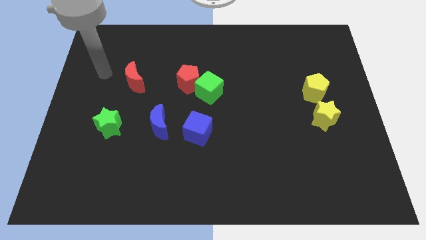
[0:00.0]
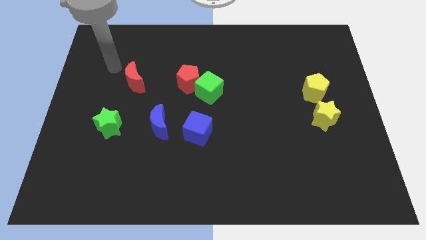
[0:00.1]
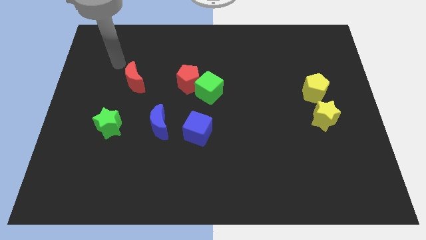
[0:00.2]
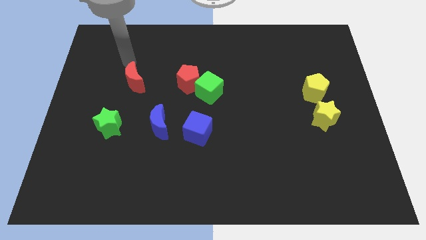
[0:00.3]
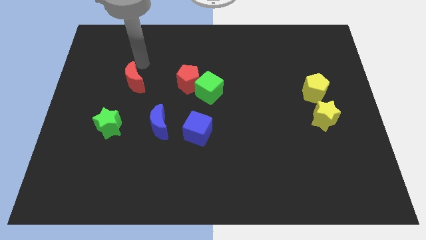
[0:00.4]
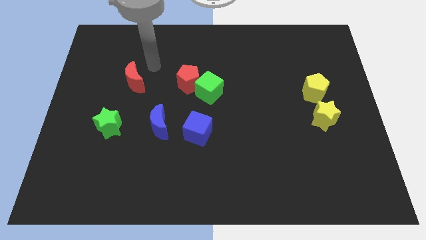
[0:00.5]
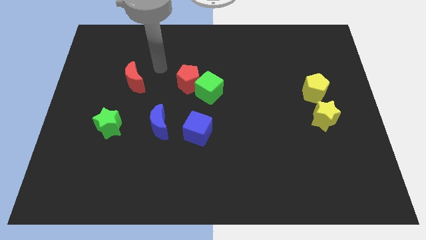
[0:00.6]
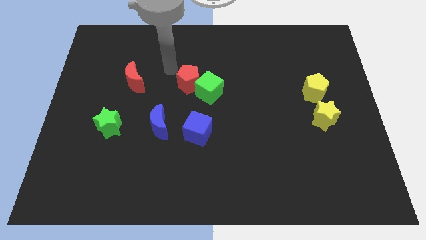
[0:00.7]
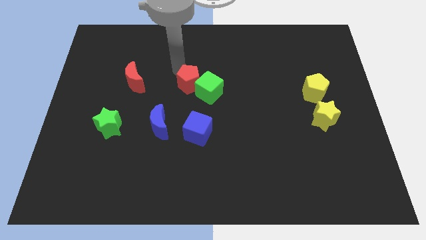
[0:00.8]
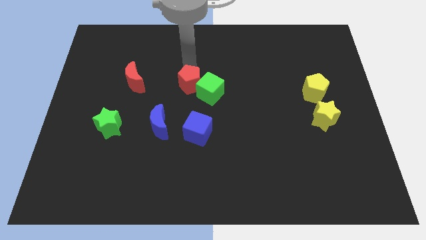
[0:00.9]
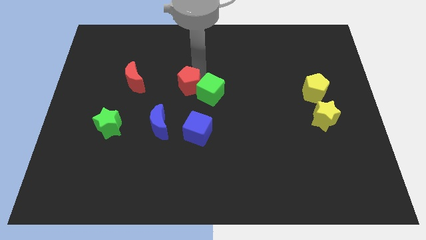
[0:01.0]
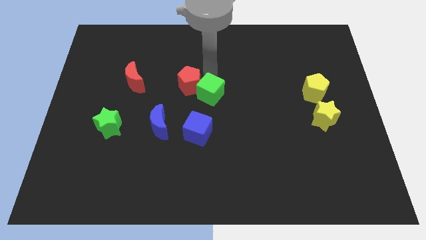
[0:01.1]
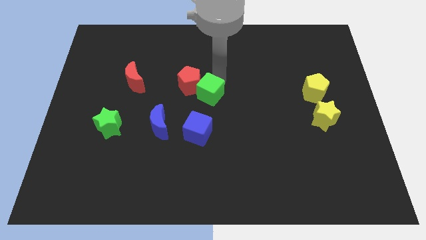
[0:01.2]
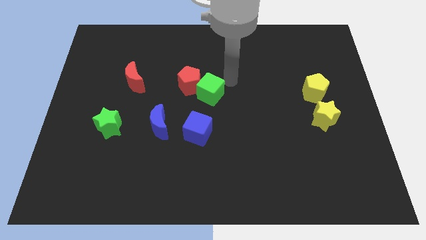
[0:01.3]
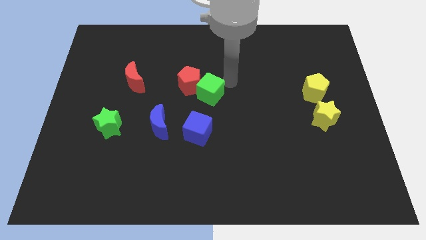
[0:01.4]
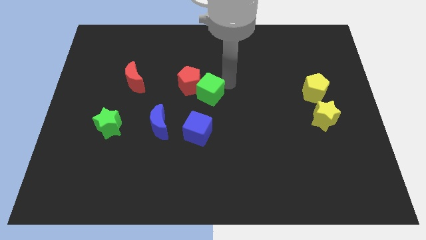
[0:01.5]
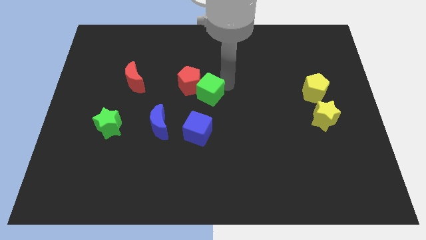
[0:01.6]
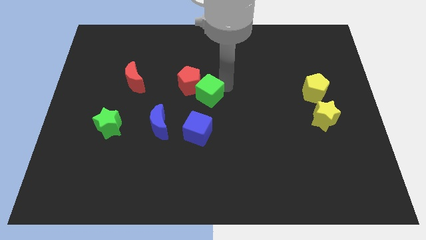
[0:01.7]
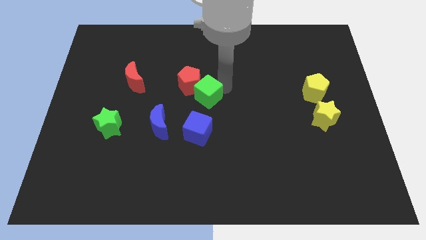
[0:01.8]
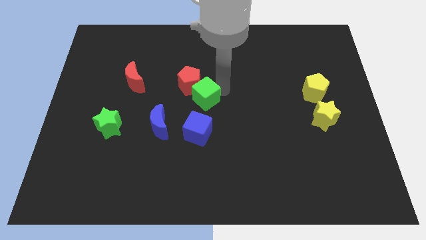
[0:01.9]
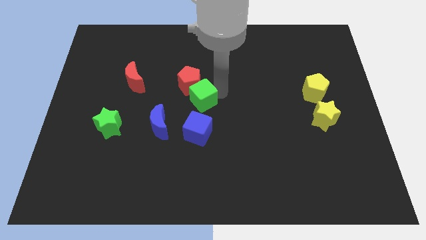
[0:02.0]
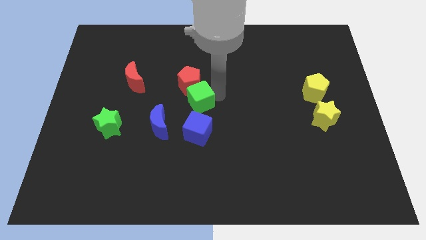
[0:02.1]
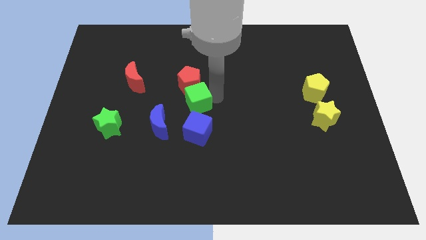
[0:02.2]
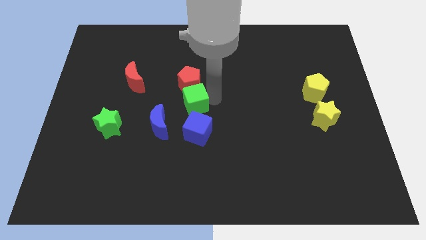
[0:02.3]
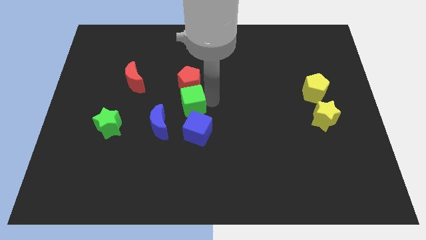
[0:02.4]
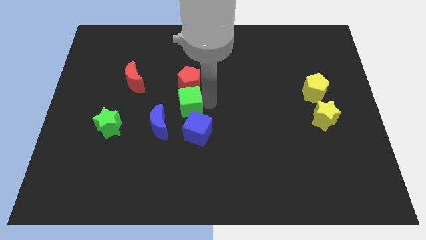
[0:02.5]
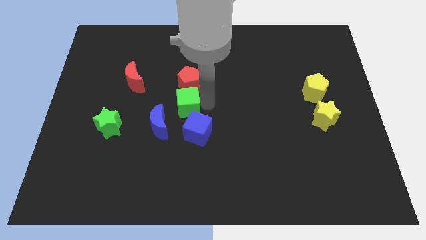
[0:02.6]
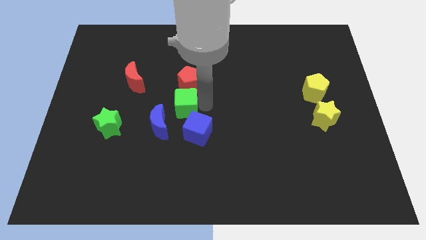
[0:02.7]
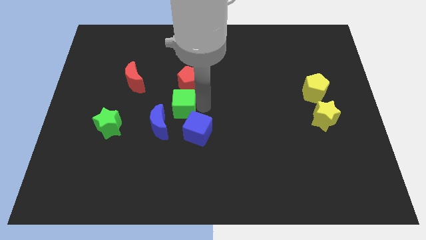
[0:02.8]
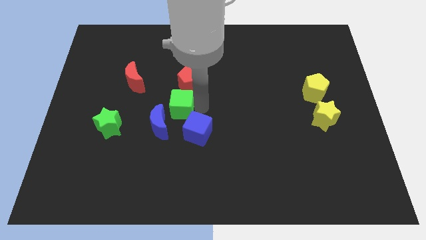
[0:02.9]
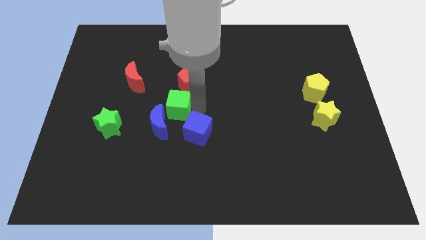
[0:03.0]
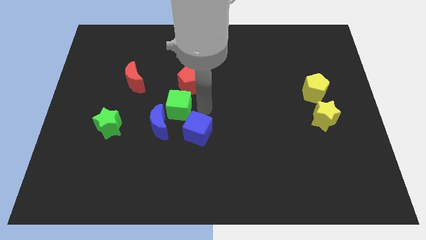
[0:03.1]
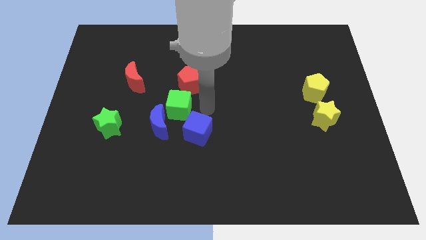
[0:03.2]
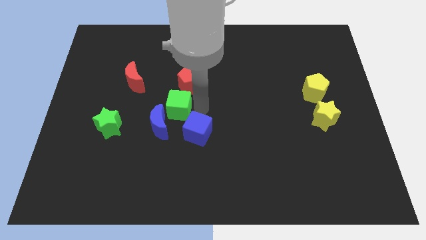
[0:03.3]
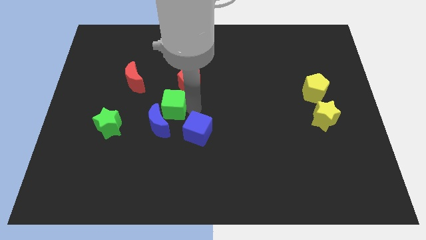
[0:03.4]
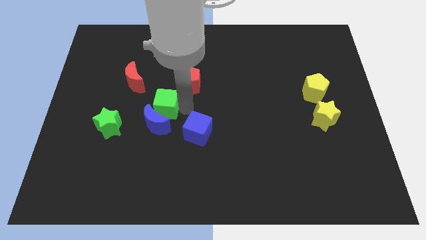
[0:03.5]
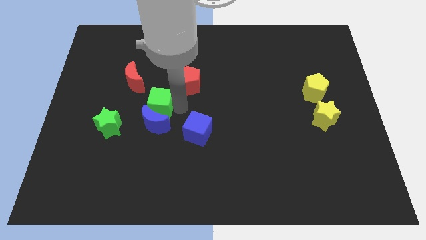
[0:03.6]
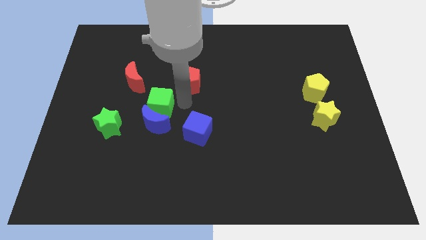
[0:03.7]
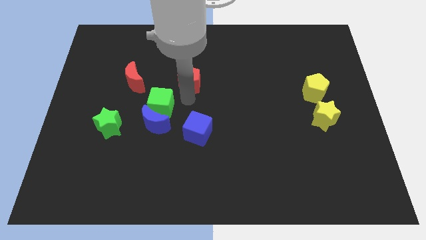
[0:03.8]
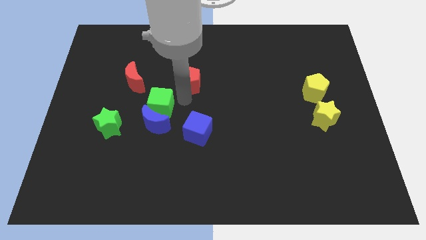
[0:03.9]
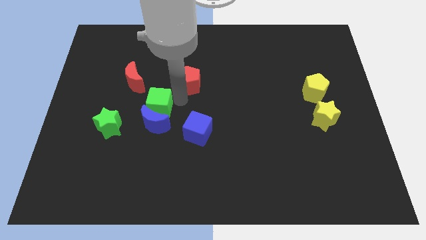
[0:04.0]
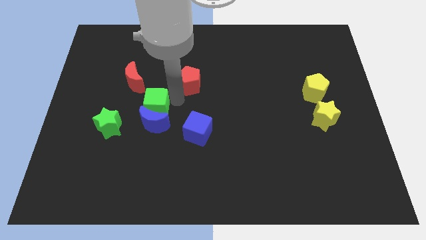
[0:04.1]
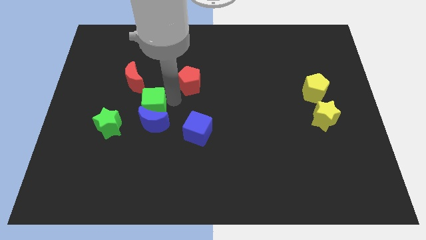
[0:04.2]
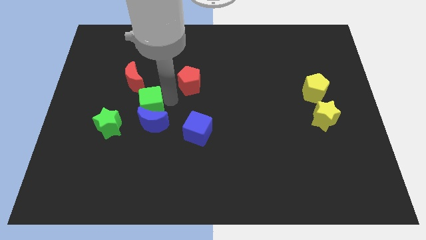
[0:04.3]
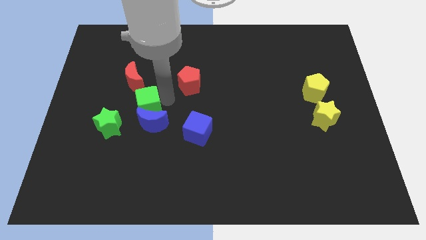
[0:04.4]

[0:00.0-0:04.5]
put the green cube below the red moon

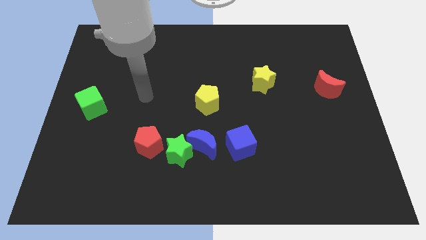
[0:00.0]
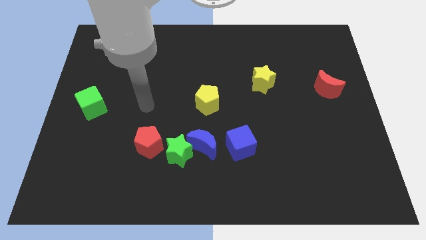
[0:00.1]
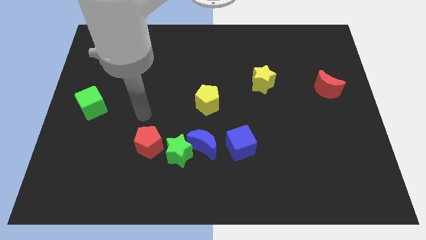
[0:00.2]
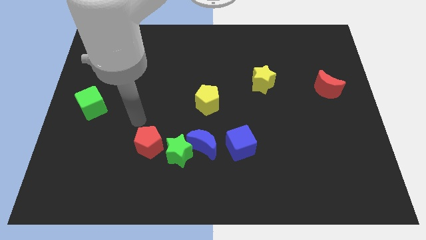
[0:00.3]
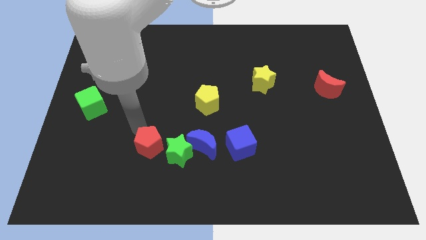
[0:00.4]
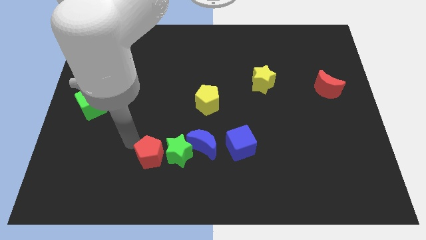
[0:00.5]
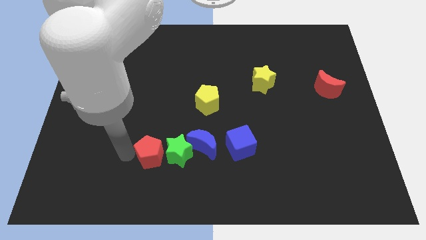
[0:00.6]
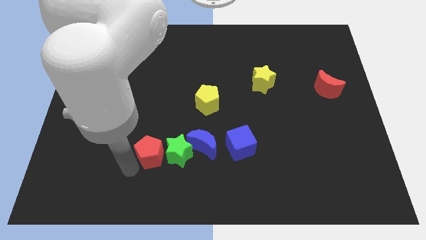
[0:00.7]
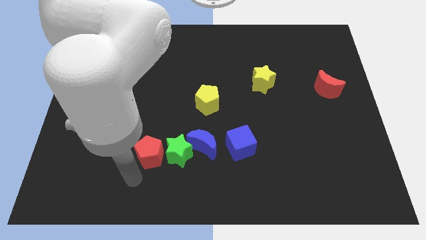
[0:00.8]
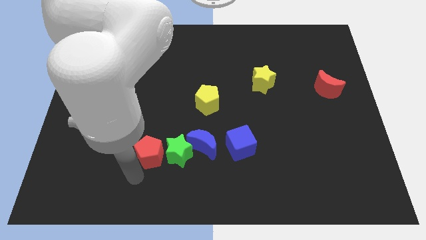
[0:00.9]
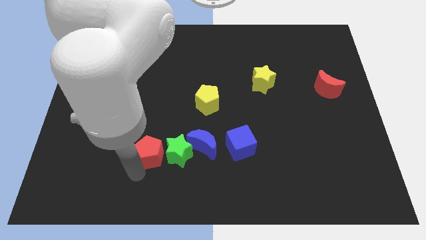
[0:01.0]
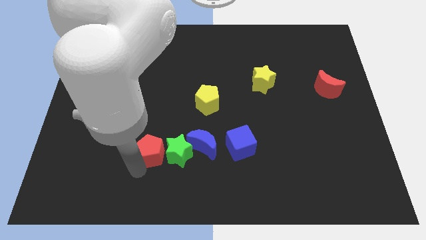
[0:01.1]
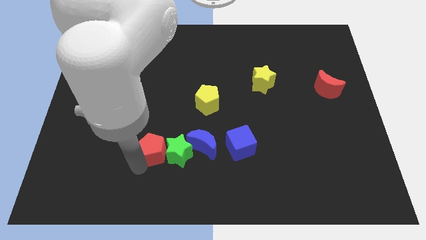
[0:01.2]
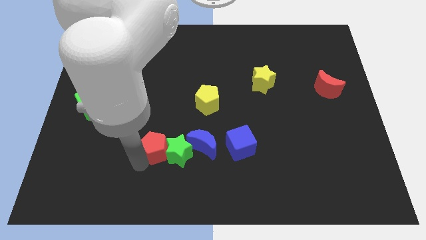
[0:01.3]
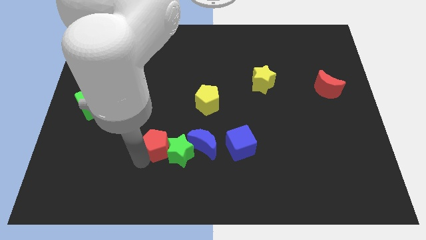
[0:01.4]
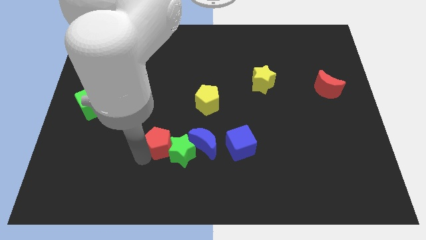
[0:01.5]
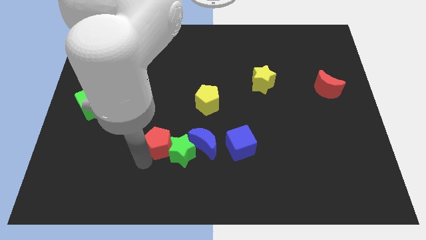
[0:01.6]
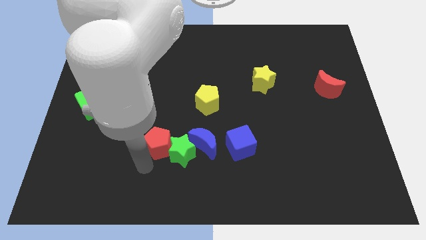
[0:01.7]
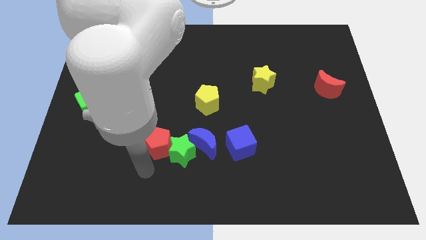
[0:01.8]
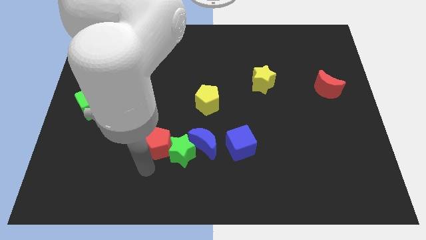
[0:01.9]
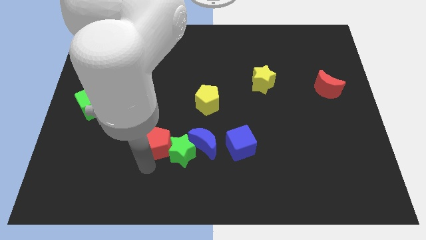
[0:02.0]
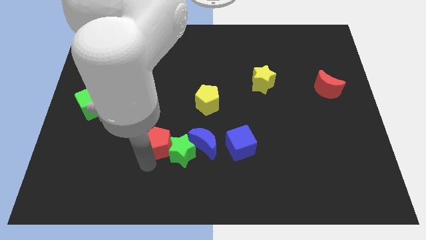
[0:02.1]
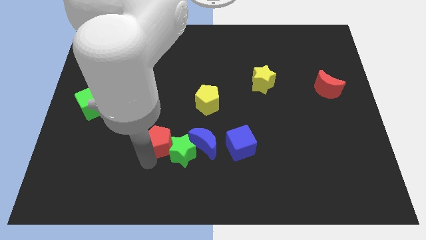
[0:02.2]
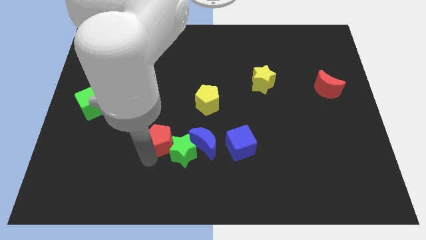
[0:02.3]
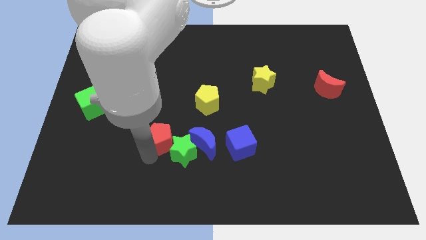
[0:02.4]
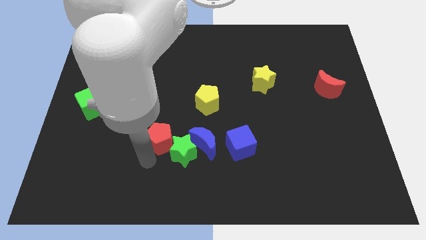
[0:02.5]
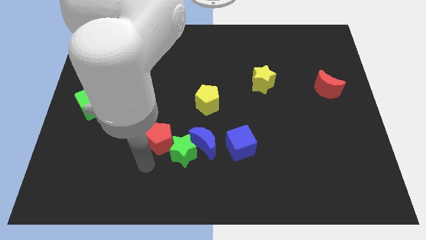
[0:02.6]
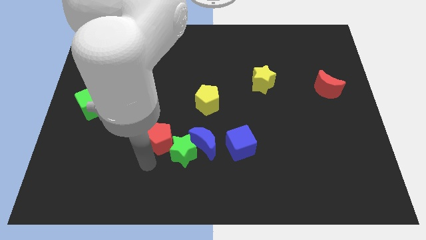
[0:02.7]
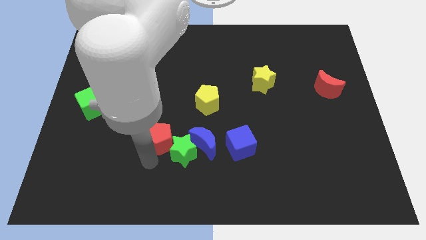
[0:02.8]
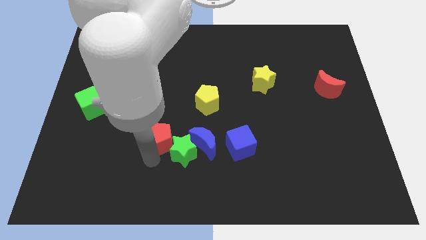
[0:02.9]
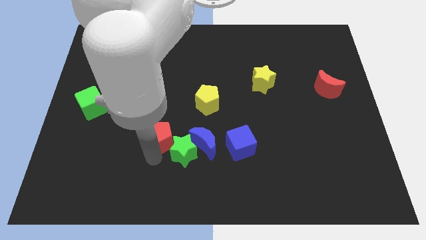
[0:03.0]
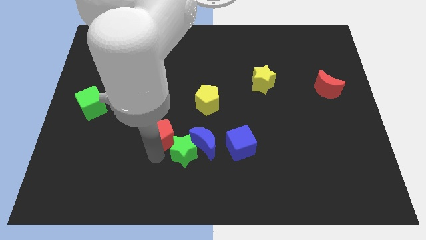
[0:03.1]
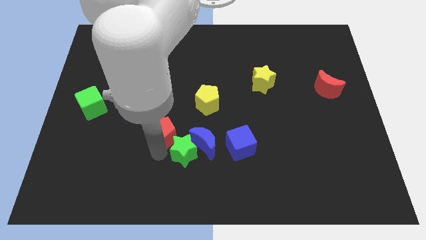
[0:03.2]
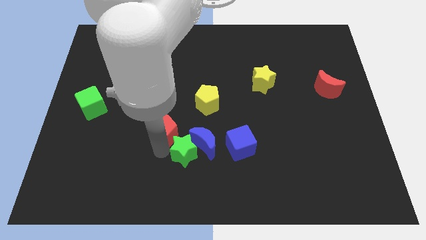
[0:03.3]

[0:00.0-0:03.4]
slide the red pentagon to the bottom left of the yellow pentagon

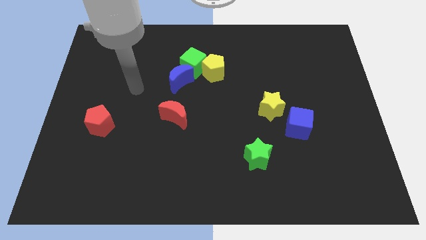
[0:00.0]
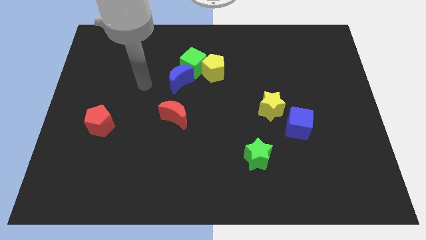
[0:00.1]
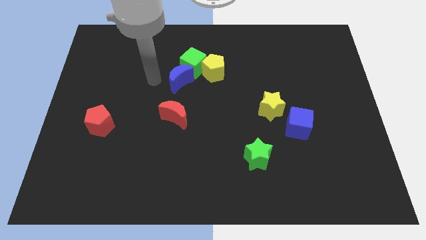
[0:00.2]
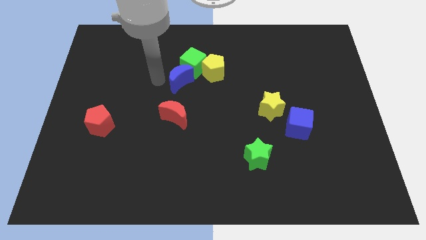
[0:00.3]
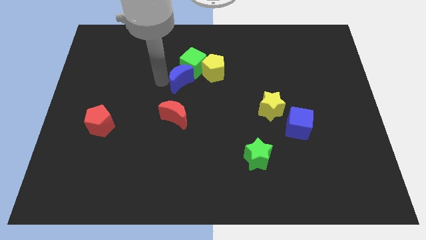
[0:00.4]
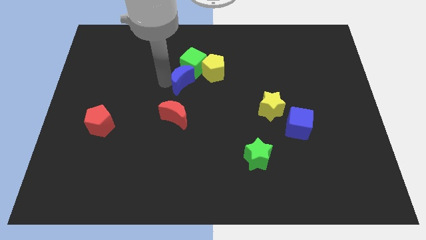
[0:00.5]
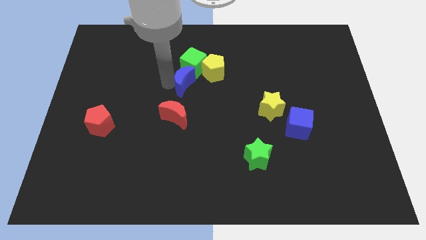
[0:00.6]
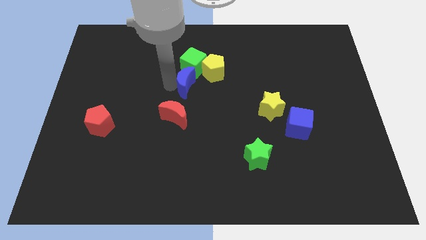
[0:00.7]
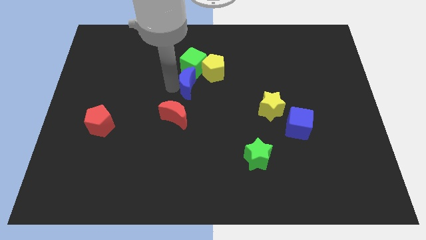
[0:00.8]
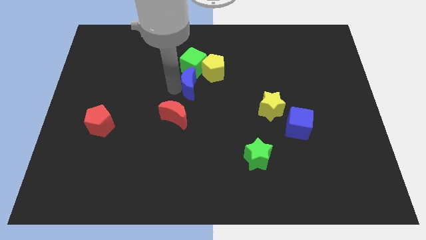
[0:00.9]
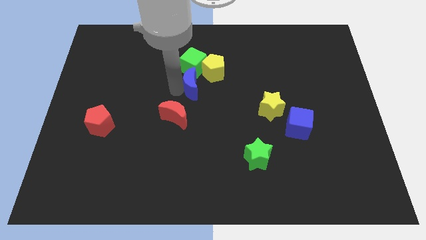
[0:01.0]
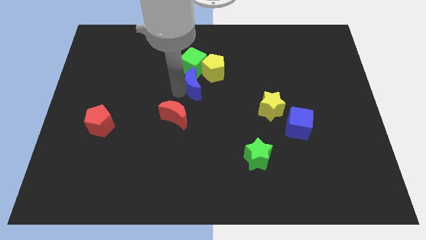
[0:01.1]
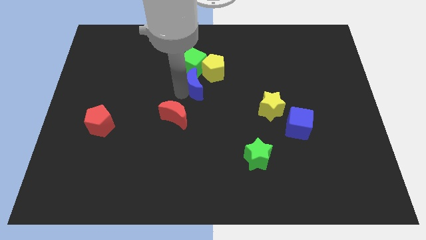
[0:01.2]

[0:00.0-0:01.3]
put the blue moon diagonally down and to the right of the green cube
